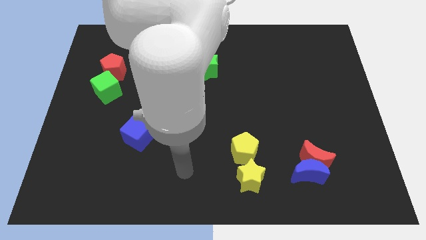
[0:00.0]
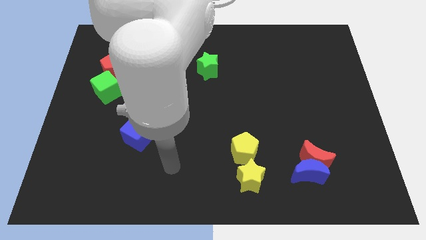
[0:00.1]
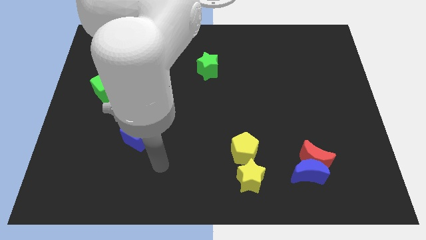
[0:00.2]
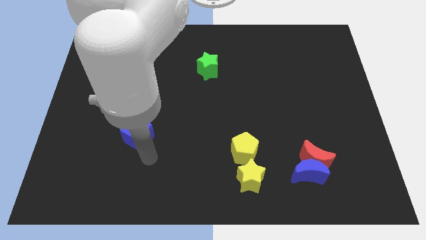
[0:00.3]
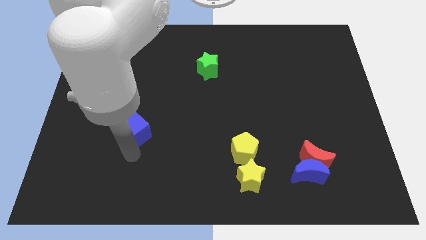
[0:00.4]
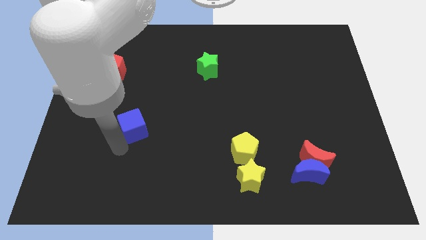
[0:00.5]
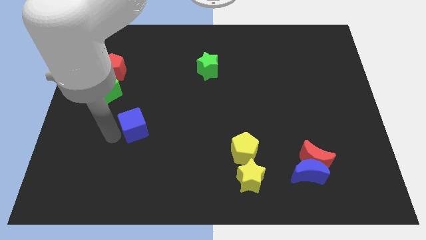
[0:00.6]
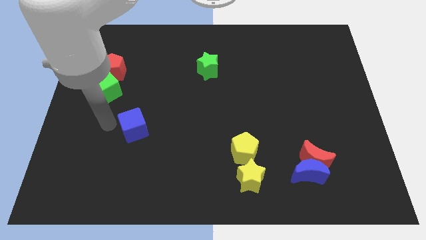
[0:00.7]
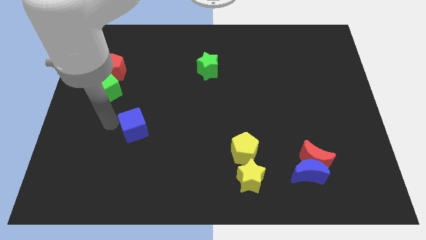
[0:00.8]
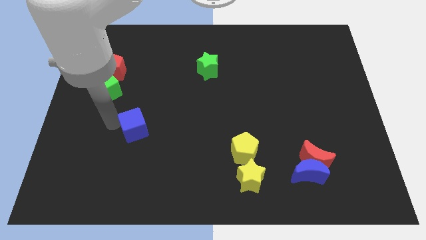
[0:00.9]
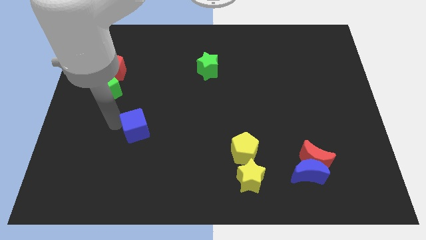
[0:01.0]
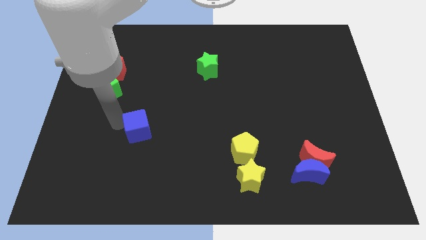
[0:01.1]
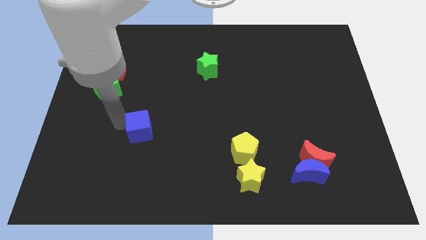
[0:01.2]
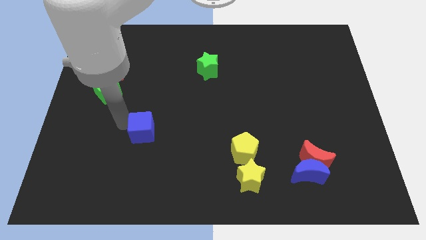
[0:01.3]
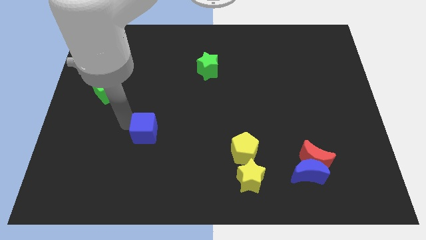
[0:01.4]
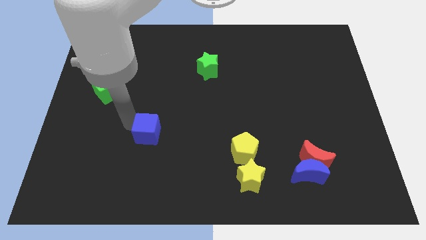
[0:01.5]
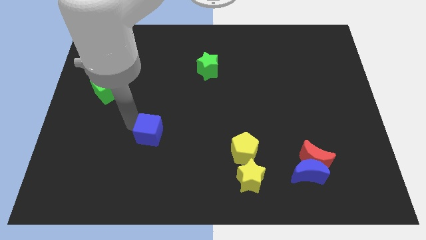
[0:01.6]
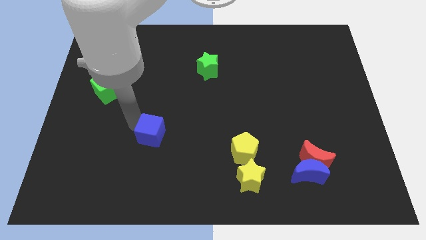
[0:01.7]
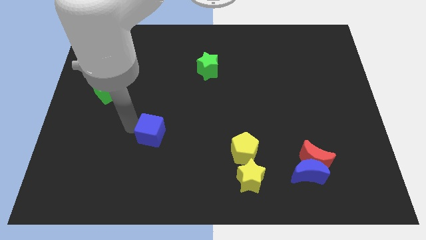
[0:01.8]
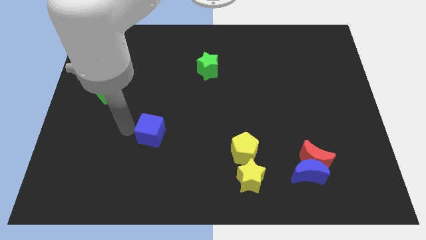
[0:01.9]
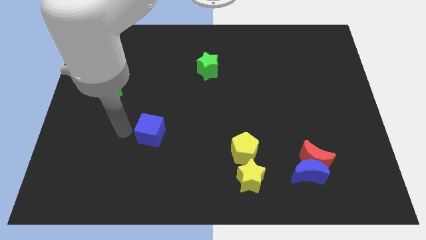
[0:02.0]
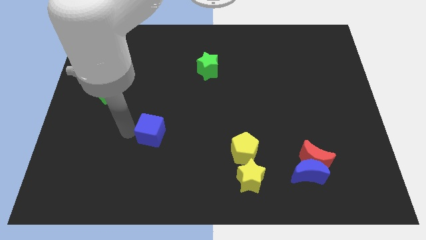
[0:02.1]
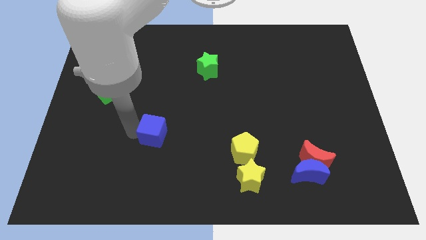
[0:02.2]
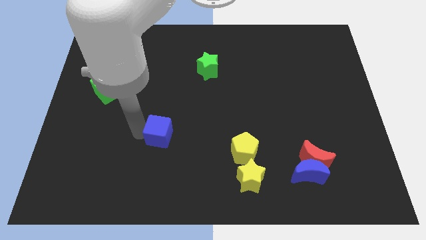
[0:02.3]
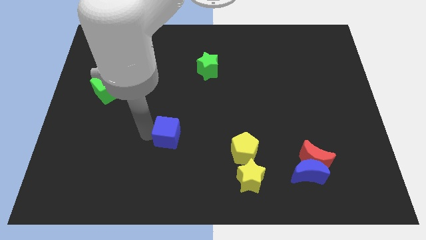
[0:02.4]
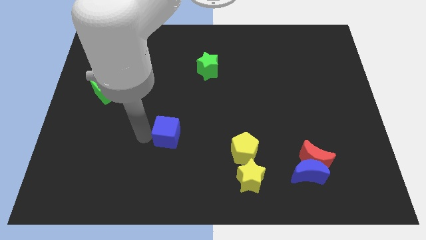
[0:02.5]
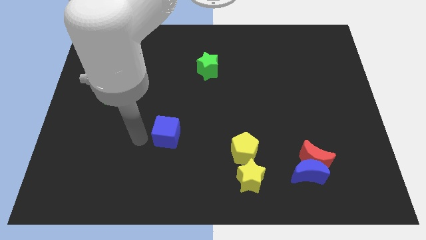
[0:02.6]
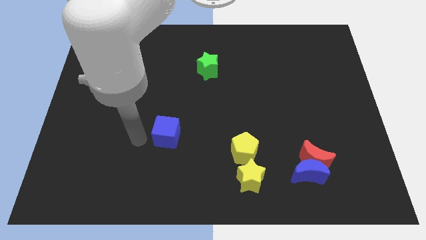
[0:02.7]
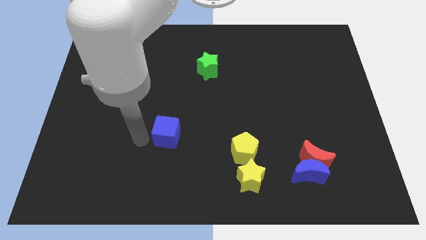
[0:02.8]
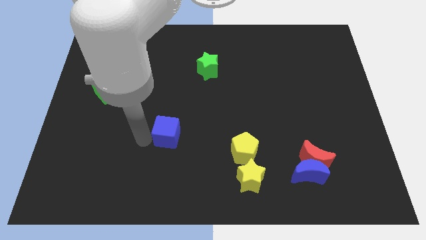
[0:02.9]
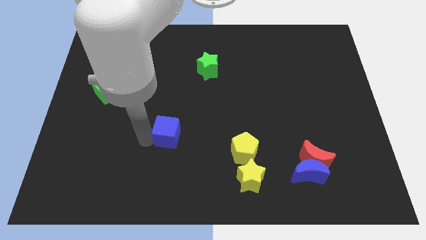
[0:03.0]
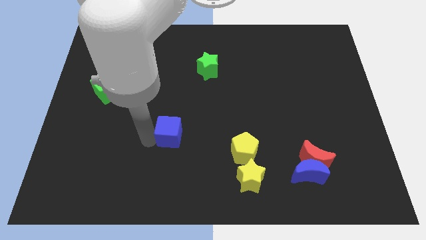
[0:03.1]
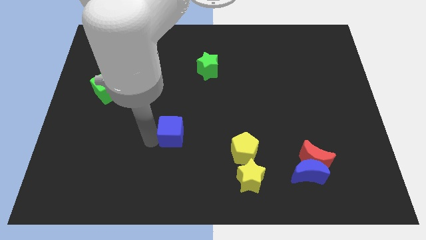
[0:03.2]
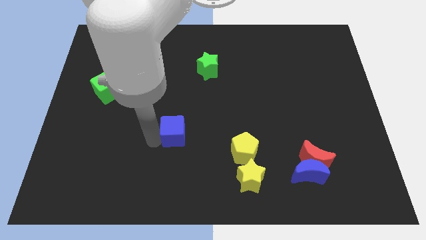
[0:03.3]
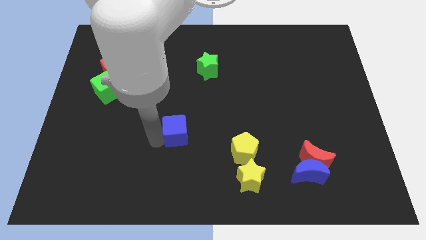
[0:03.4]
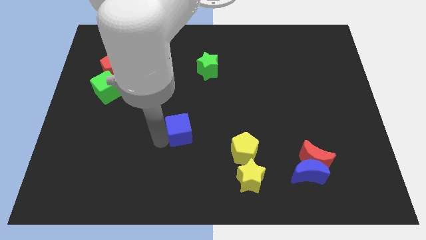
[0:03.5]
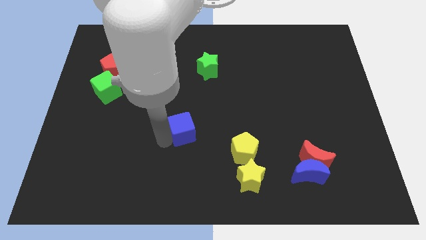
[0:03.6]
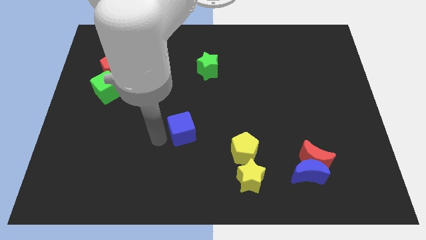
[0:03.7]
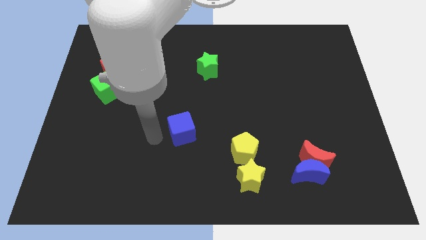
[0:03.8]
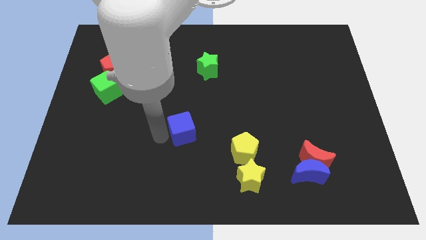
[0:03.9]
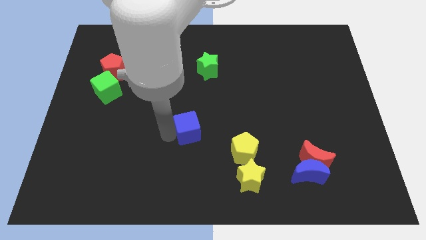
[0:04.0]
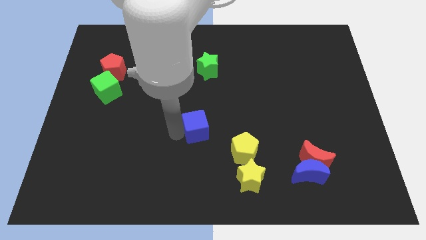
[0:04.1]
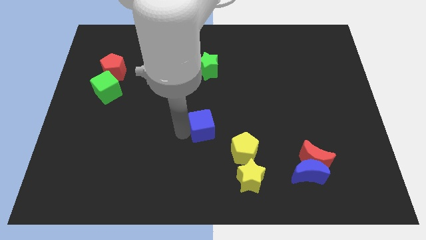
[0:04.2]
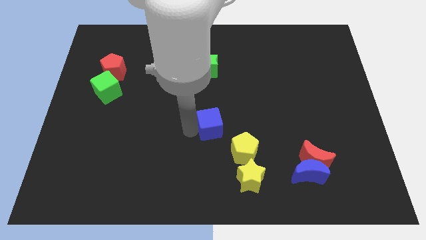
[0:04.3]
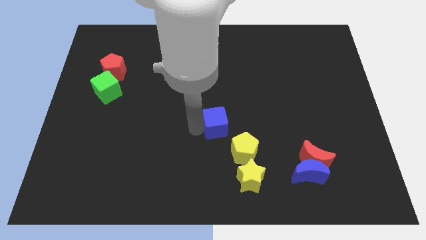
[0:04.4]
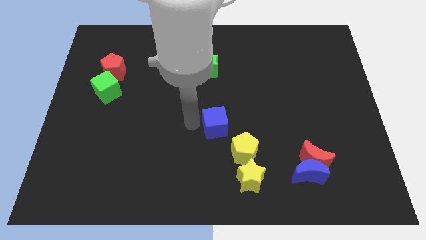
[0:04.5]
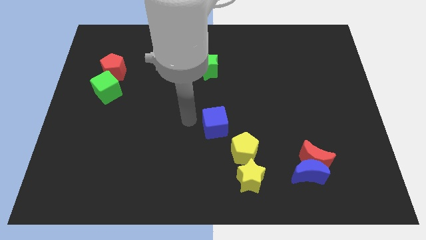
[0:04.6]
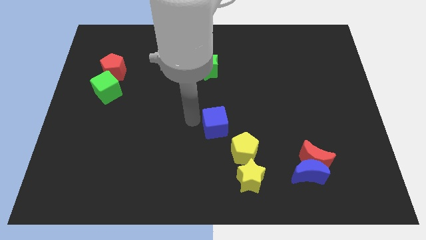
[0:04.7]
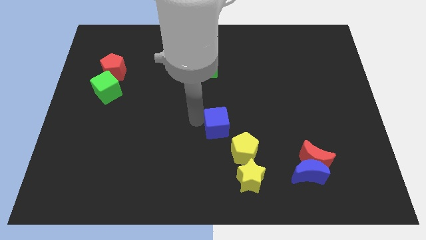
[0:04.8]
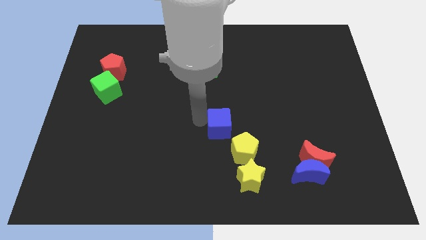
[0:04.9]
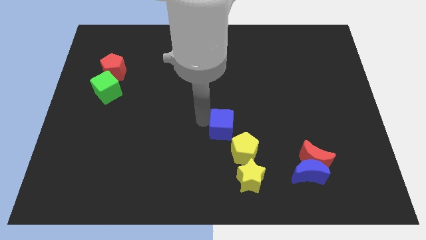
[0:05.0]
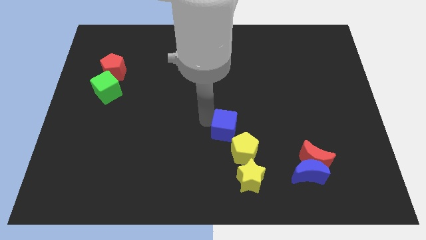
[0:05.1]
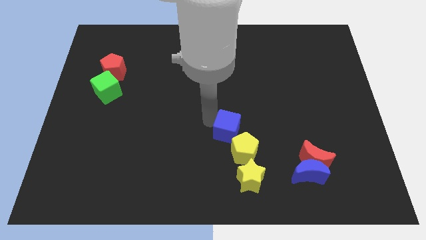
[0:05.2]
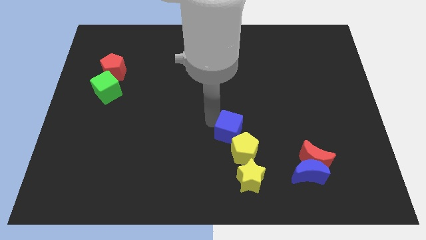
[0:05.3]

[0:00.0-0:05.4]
slide the blue cube right

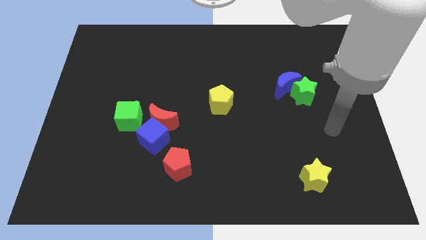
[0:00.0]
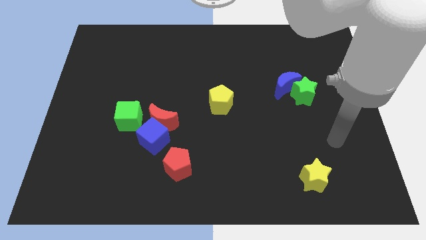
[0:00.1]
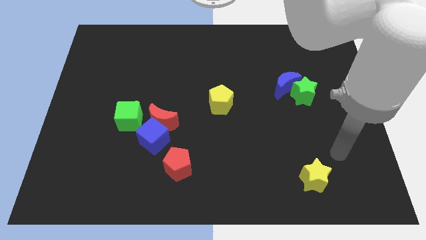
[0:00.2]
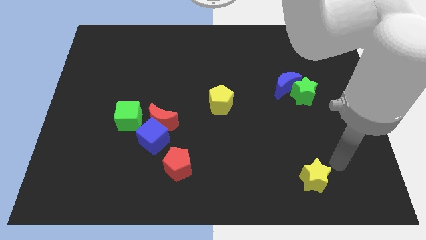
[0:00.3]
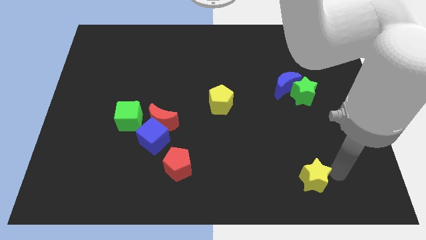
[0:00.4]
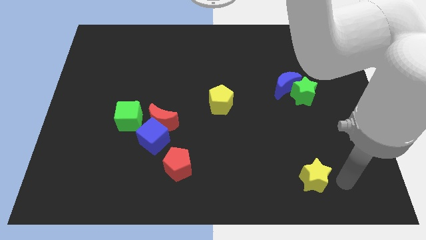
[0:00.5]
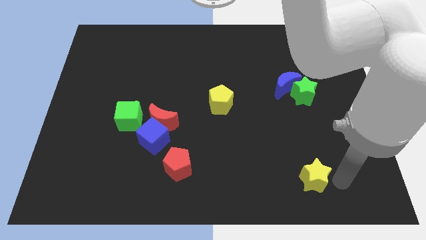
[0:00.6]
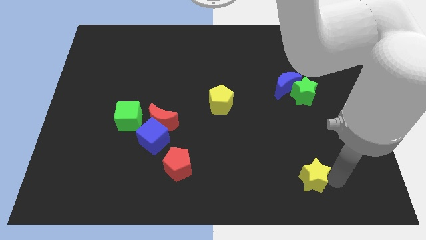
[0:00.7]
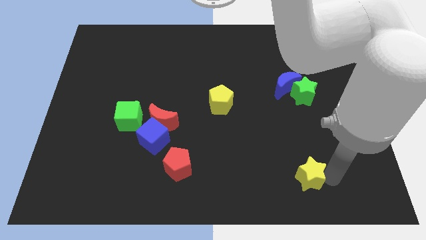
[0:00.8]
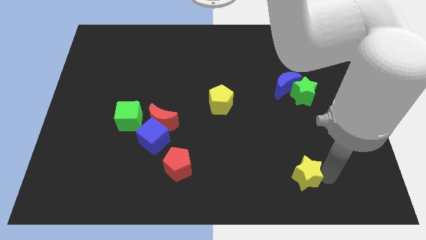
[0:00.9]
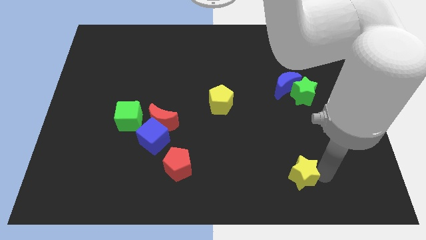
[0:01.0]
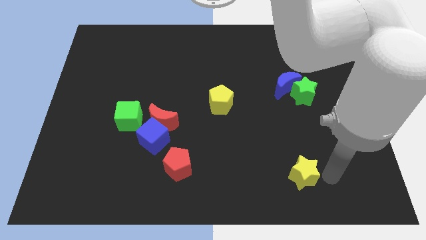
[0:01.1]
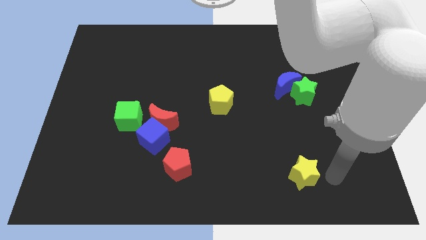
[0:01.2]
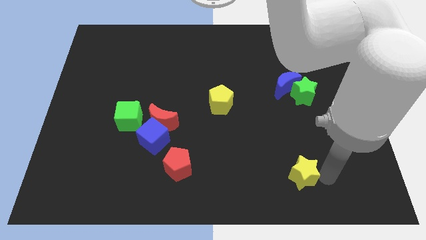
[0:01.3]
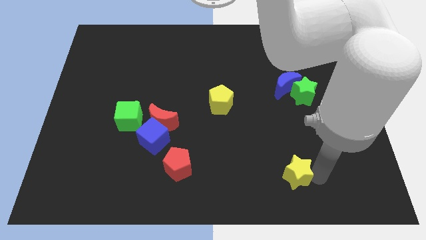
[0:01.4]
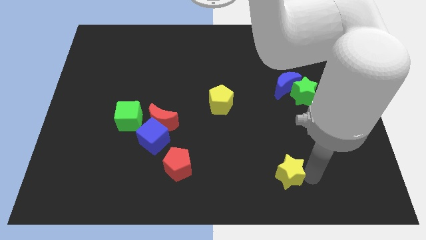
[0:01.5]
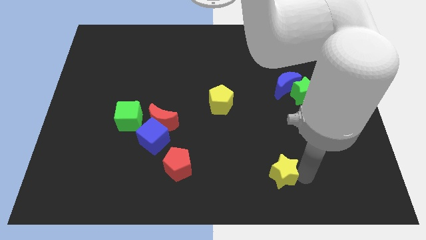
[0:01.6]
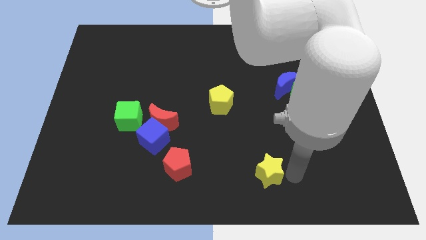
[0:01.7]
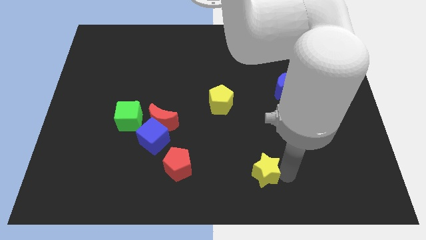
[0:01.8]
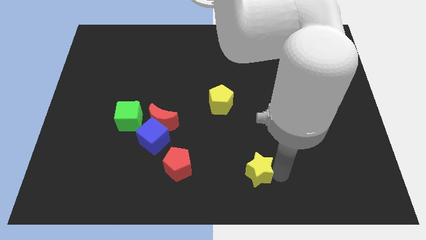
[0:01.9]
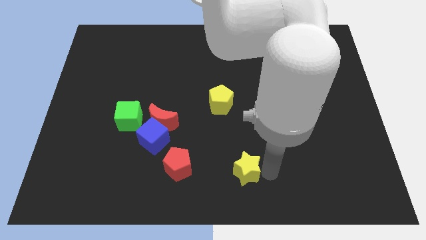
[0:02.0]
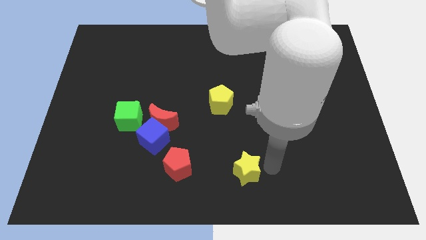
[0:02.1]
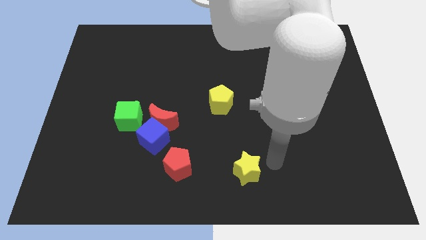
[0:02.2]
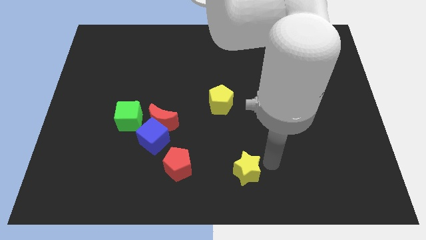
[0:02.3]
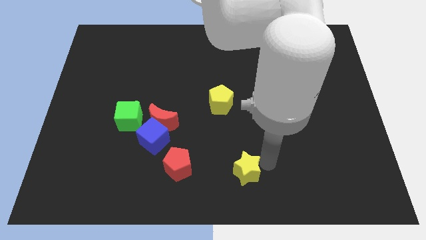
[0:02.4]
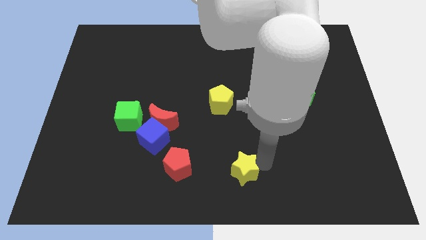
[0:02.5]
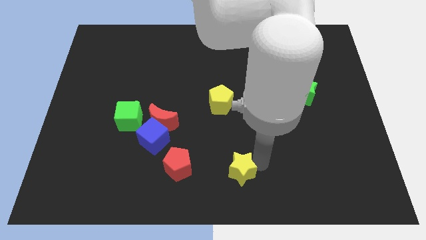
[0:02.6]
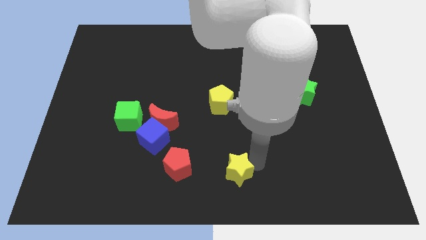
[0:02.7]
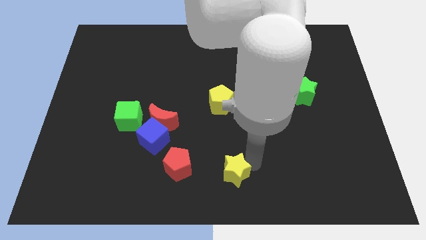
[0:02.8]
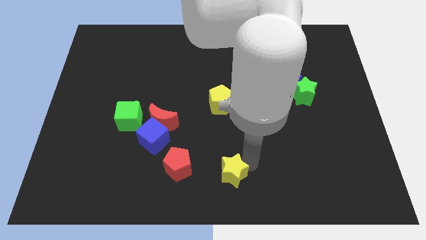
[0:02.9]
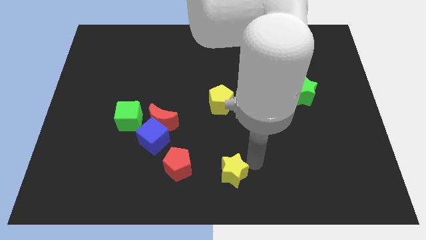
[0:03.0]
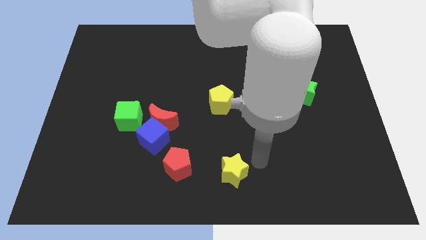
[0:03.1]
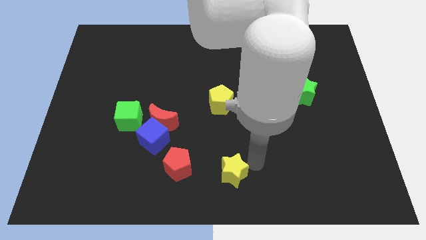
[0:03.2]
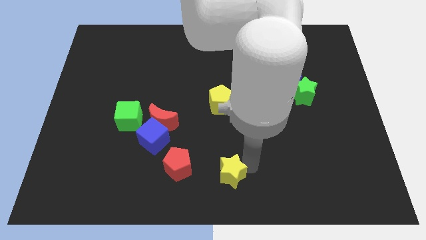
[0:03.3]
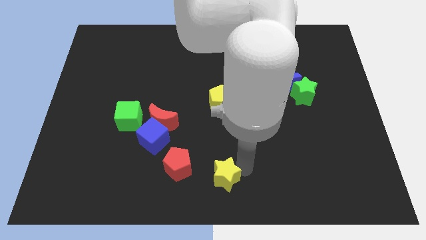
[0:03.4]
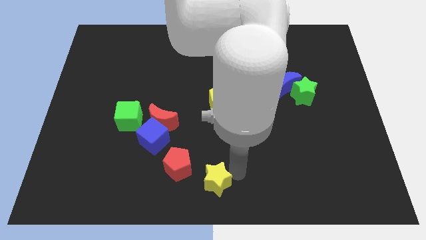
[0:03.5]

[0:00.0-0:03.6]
push the yellow star to the left
